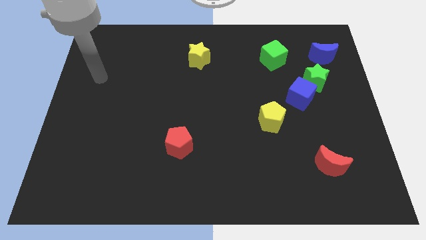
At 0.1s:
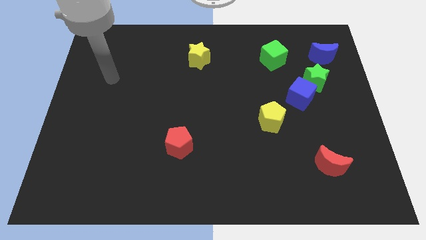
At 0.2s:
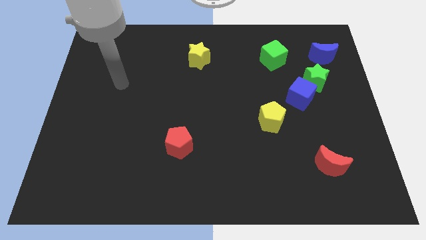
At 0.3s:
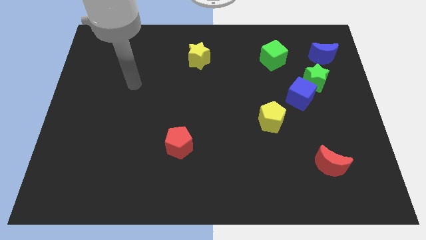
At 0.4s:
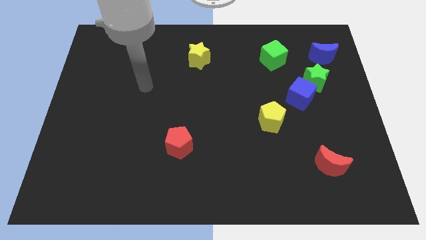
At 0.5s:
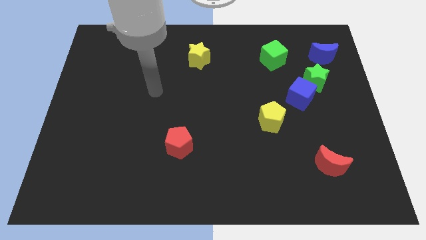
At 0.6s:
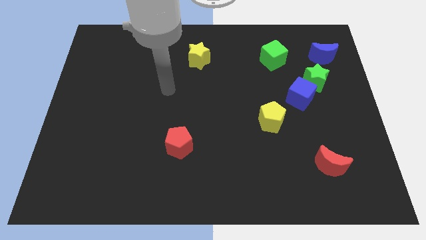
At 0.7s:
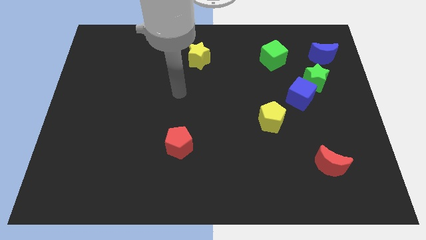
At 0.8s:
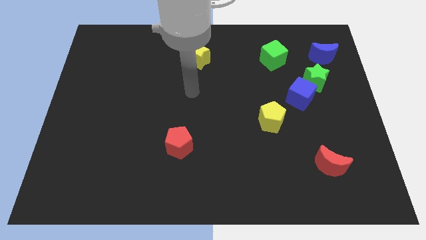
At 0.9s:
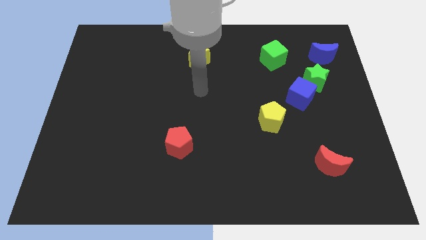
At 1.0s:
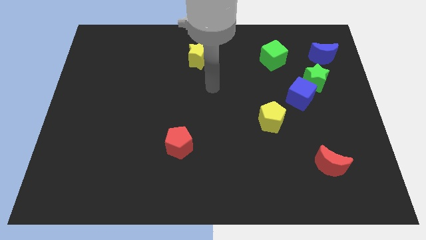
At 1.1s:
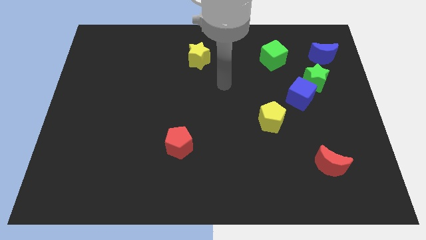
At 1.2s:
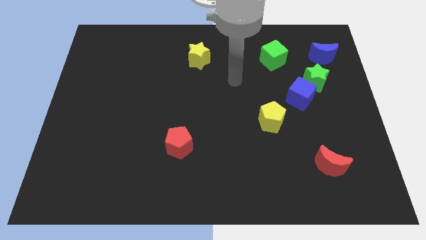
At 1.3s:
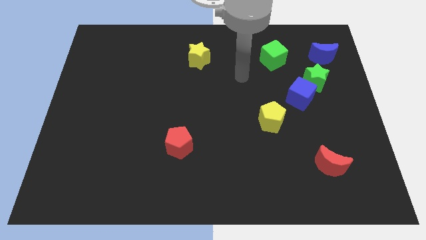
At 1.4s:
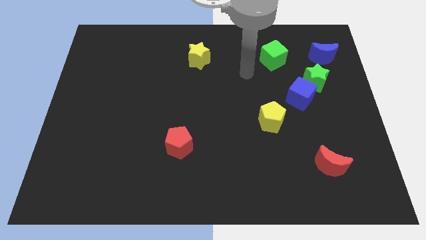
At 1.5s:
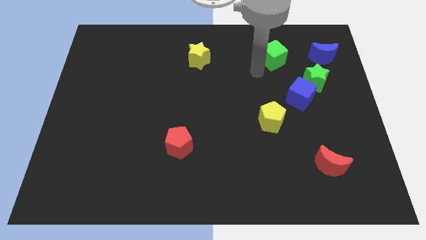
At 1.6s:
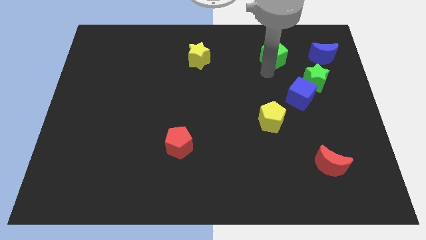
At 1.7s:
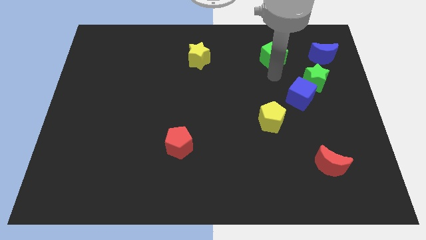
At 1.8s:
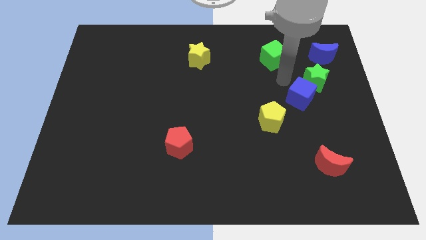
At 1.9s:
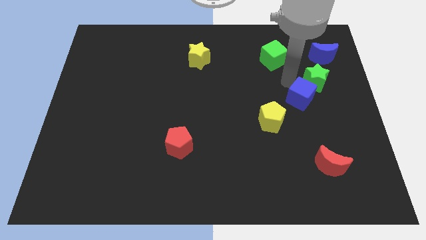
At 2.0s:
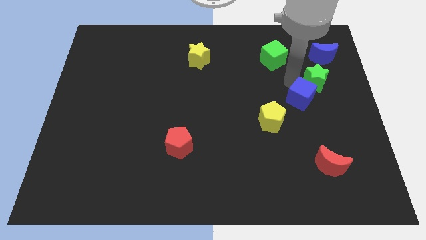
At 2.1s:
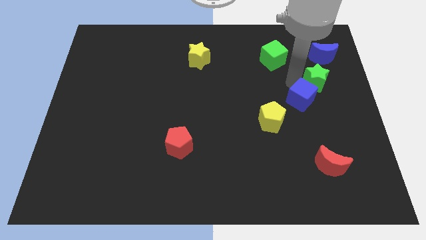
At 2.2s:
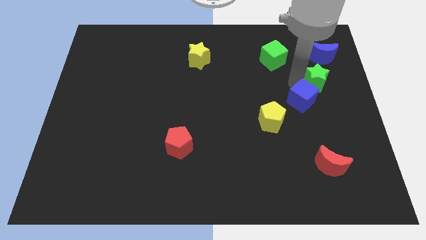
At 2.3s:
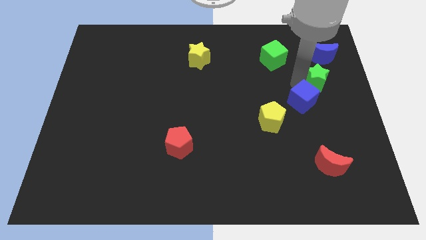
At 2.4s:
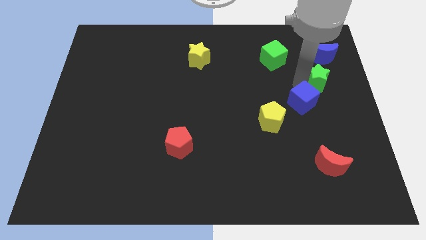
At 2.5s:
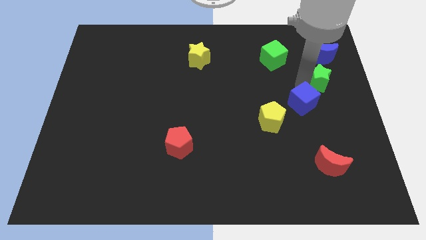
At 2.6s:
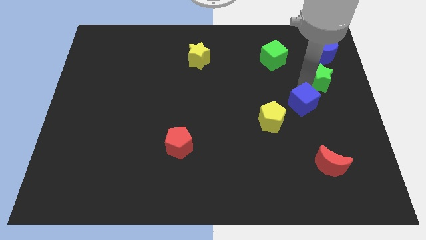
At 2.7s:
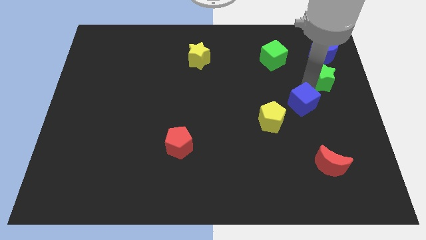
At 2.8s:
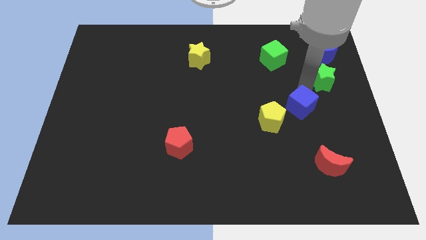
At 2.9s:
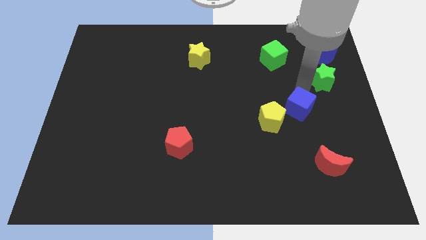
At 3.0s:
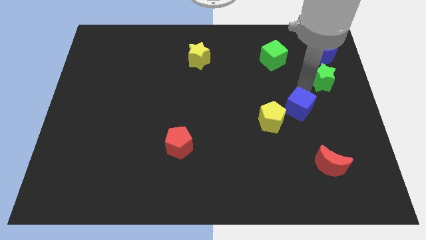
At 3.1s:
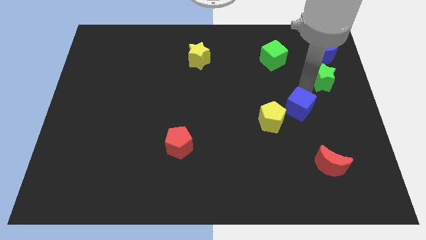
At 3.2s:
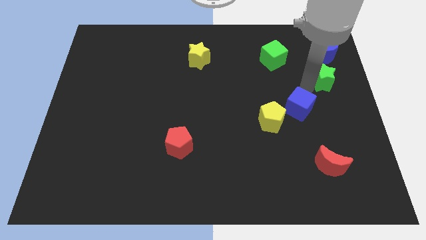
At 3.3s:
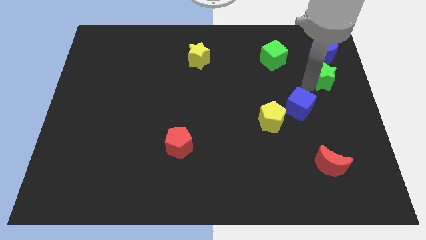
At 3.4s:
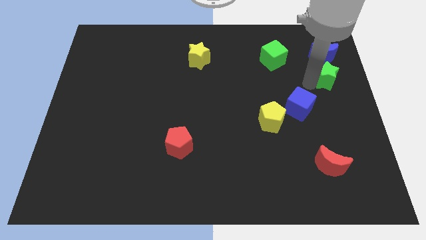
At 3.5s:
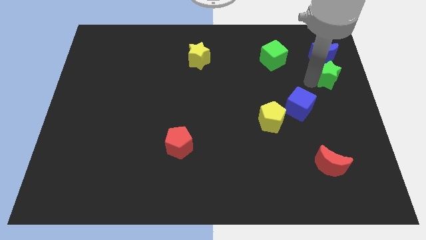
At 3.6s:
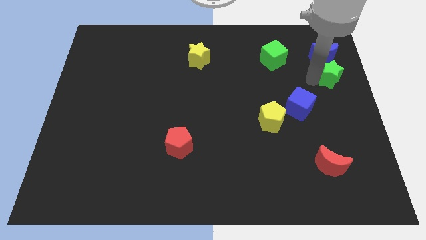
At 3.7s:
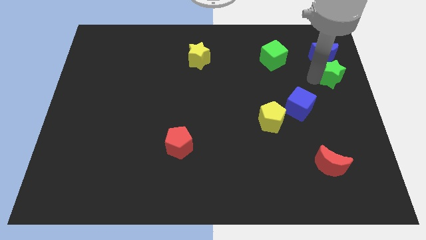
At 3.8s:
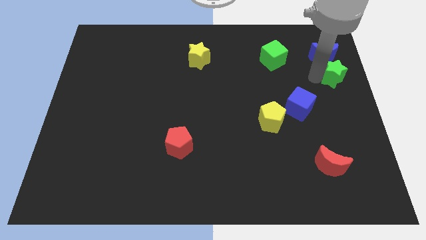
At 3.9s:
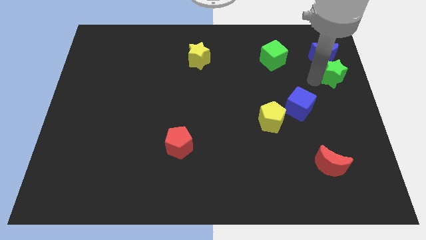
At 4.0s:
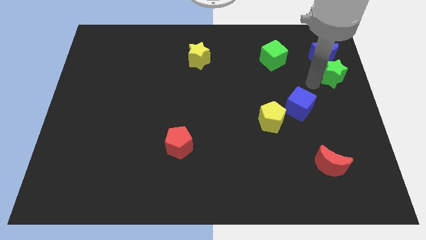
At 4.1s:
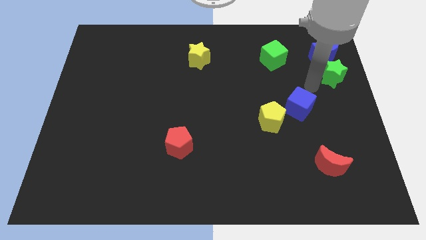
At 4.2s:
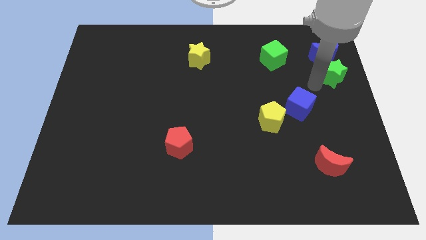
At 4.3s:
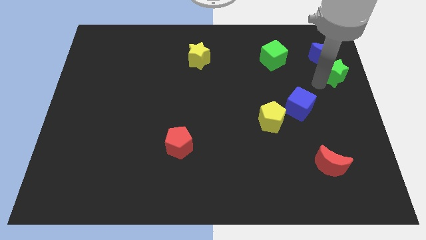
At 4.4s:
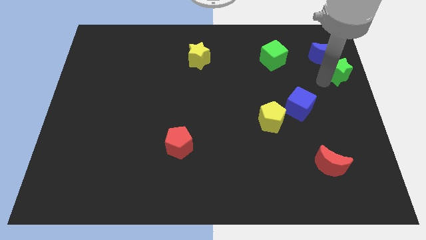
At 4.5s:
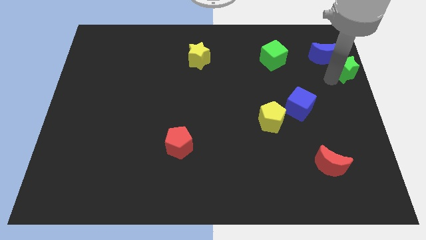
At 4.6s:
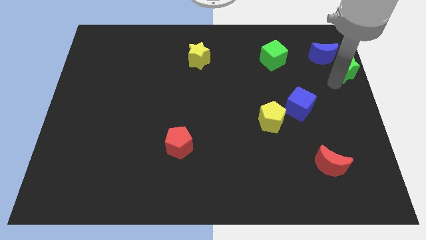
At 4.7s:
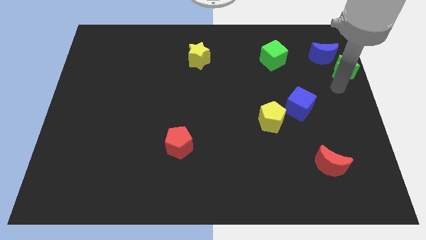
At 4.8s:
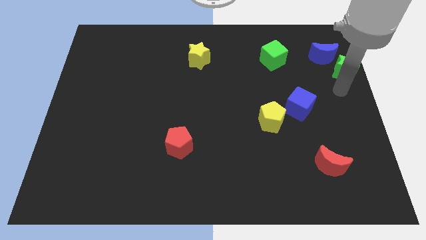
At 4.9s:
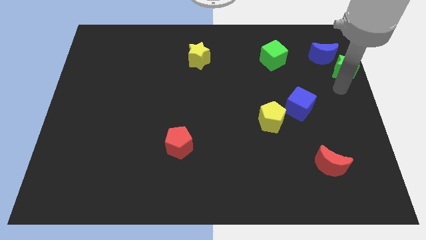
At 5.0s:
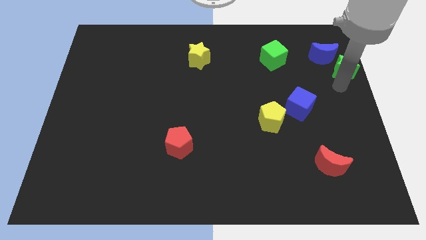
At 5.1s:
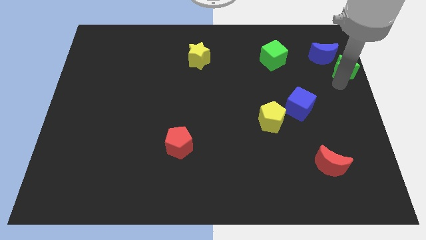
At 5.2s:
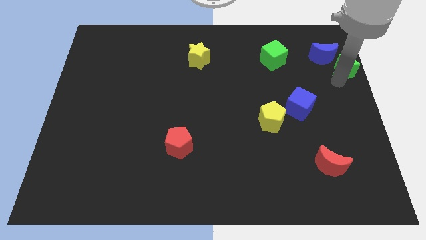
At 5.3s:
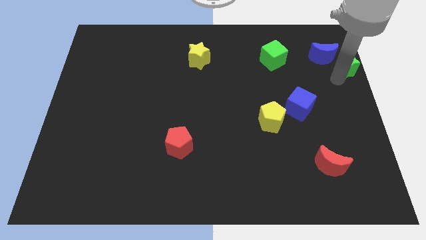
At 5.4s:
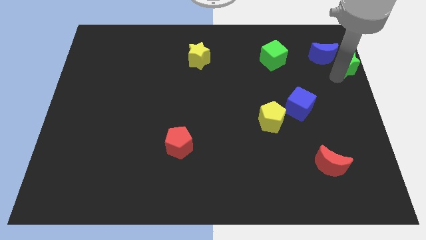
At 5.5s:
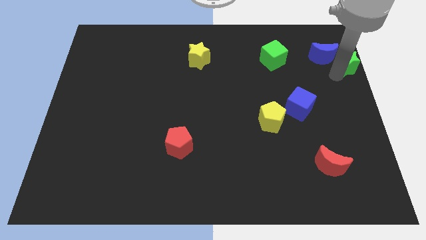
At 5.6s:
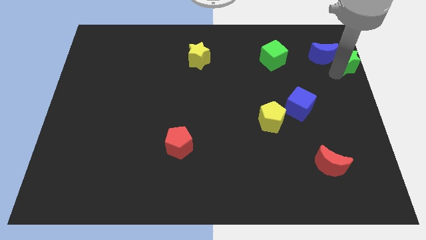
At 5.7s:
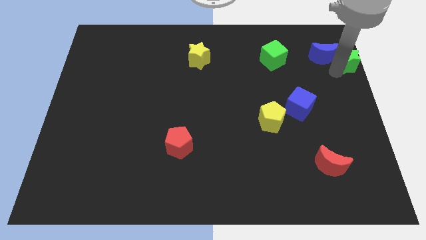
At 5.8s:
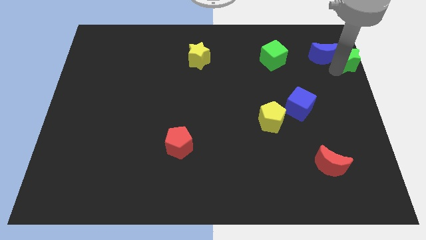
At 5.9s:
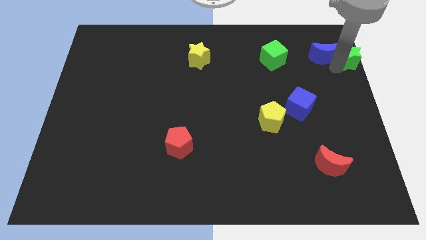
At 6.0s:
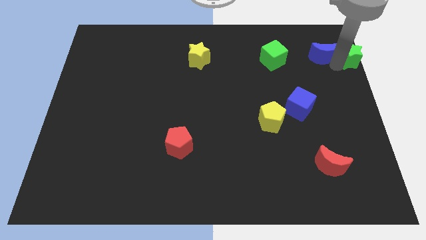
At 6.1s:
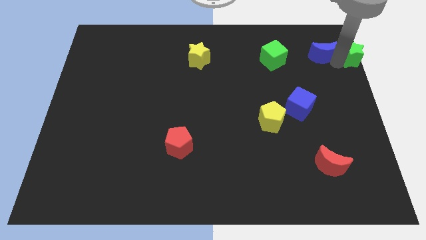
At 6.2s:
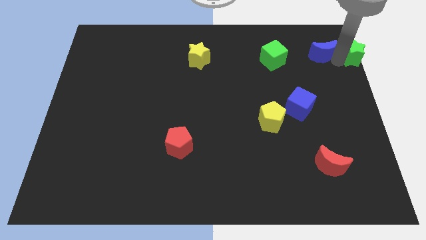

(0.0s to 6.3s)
move the green star to the top right corner
